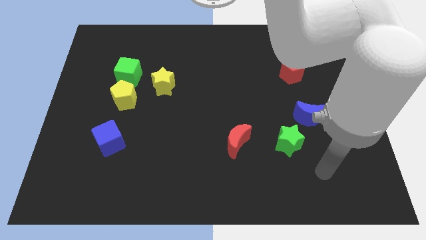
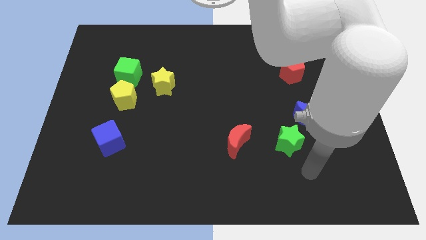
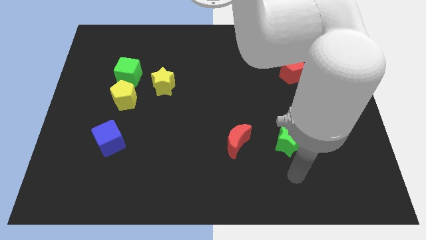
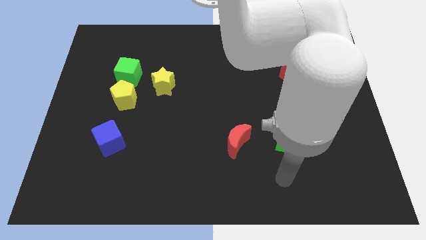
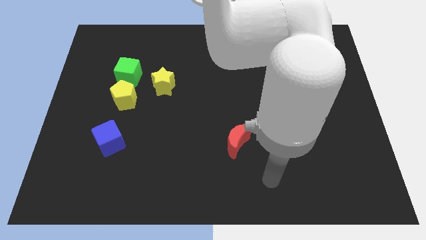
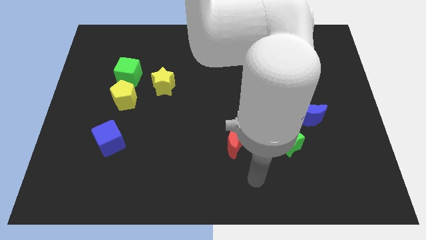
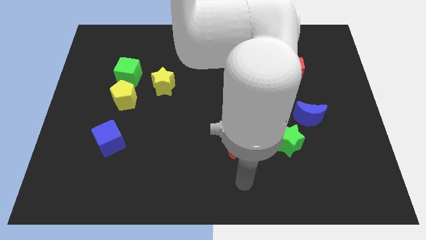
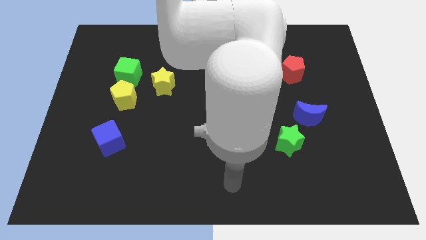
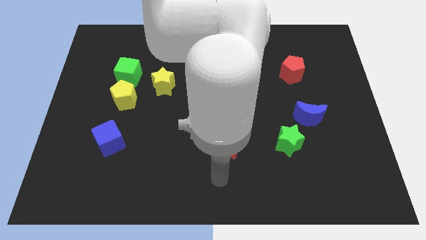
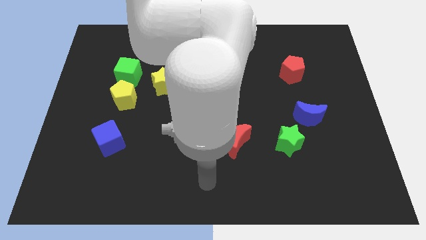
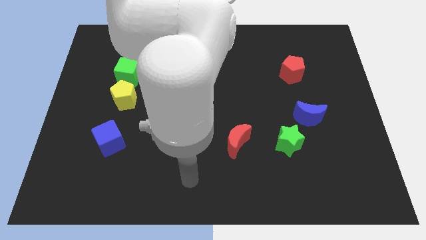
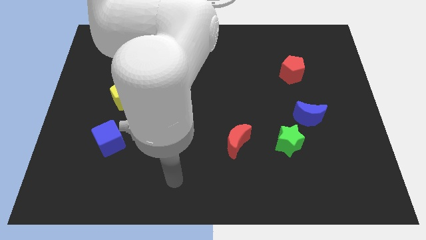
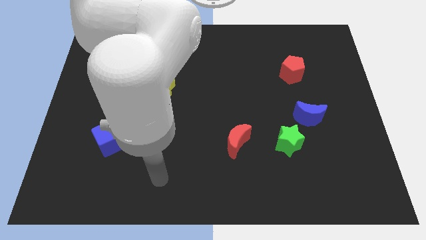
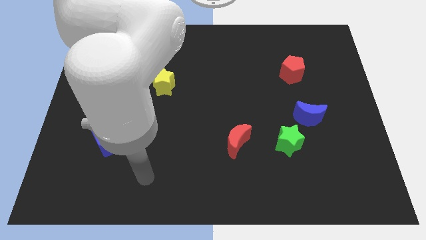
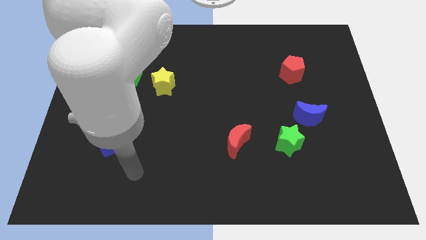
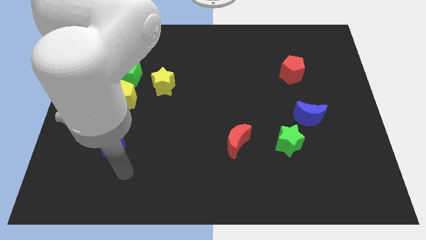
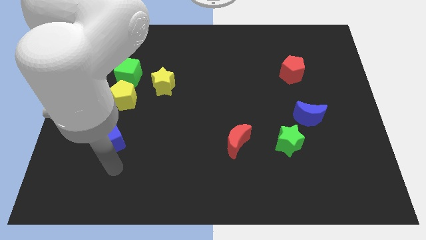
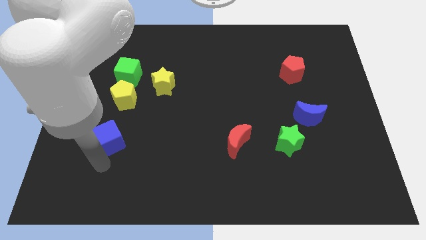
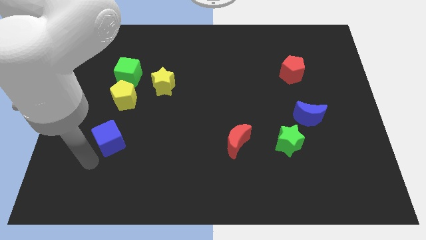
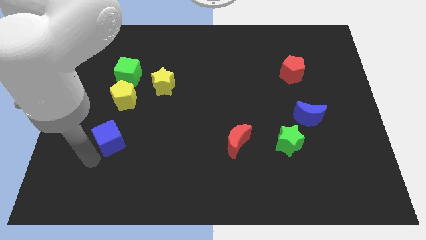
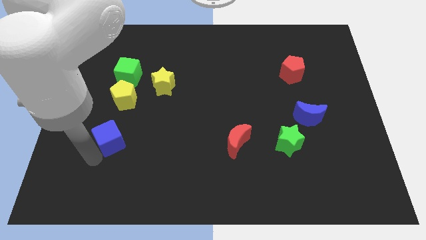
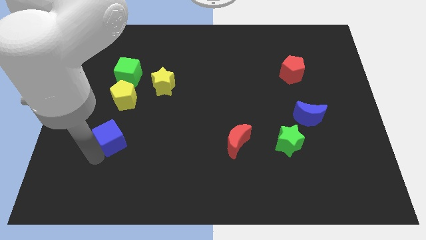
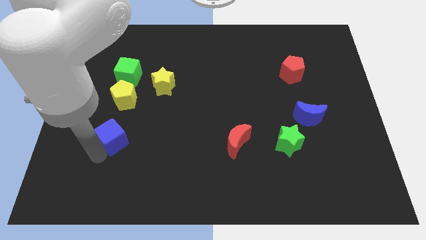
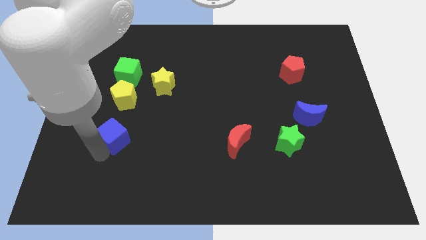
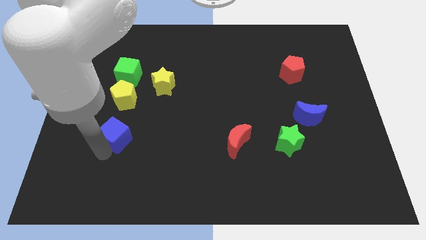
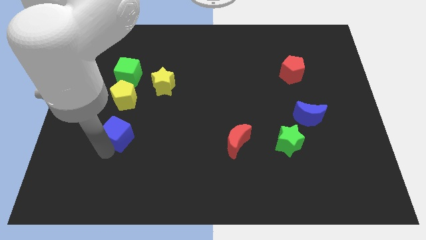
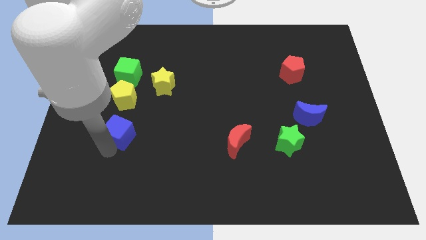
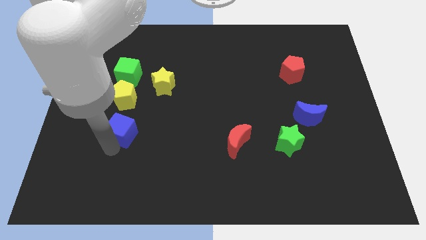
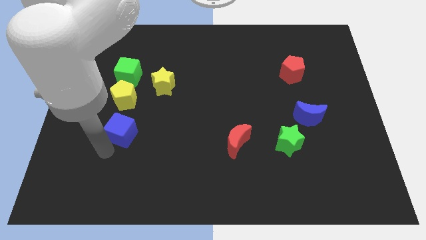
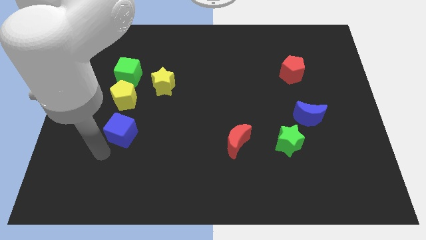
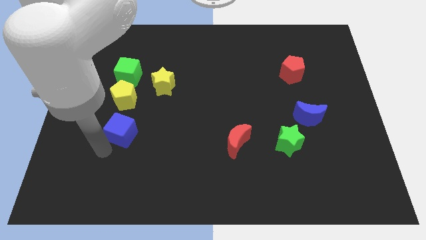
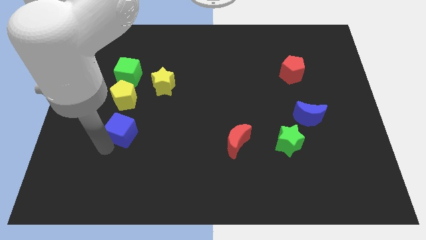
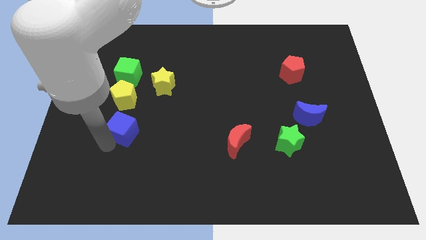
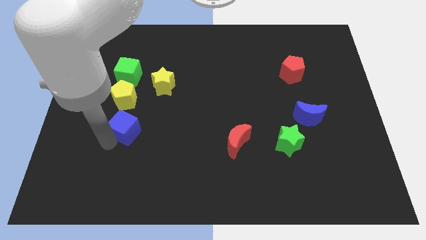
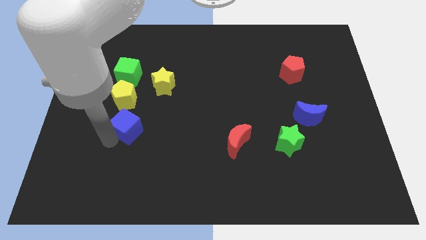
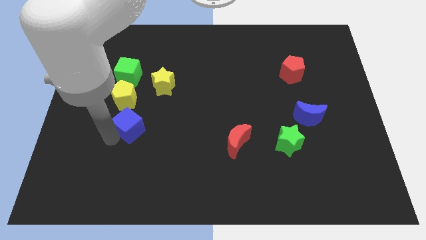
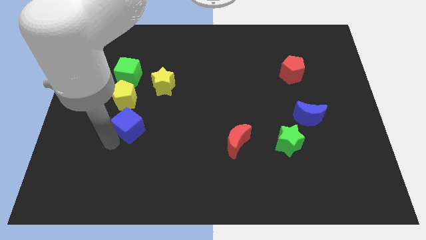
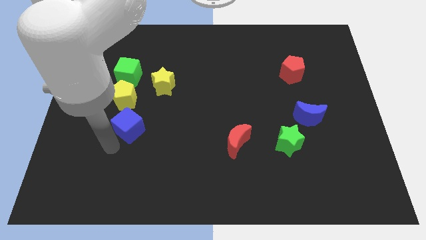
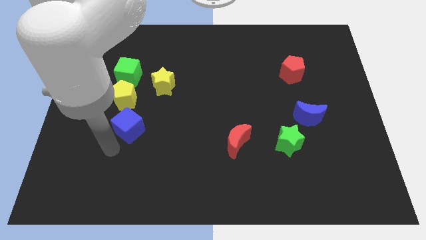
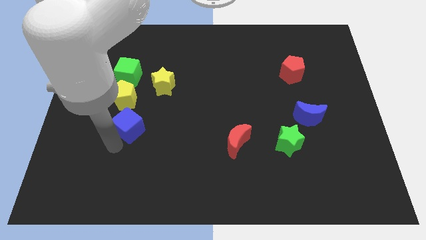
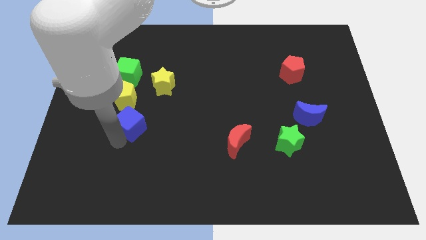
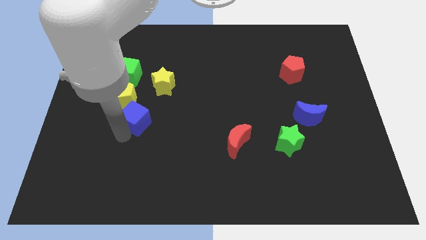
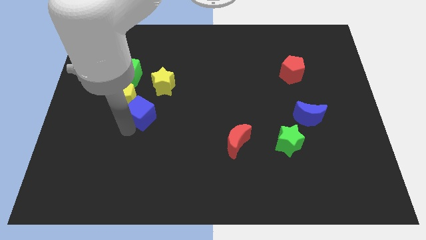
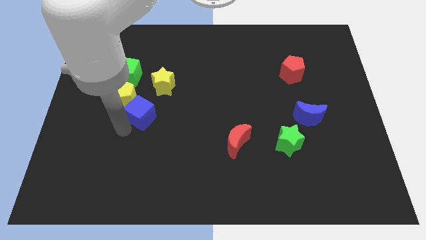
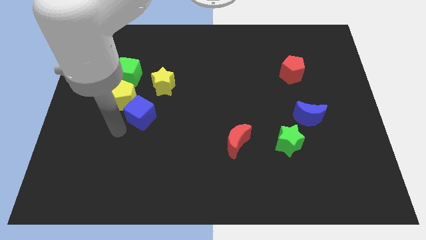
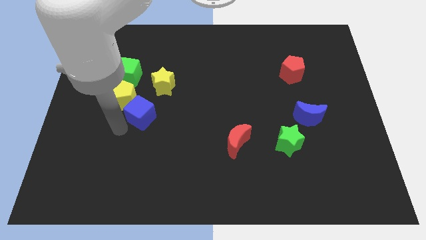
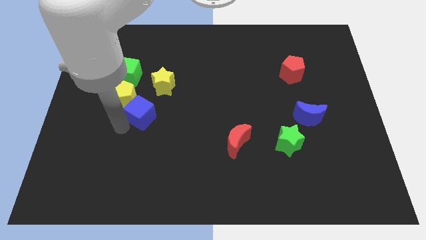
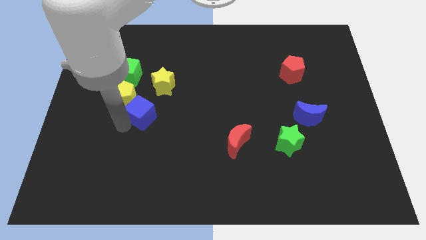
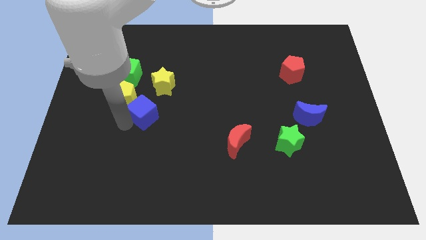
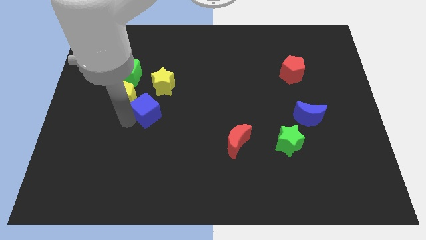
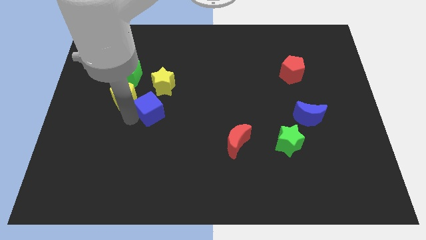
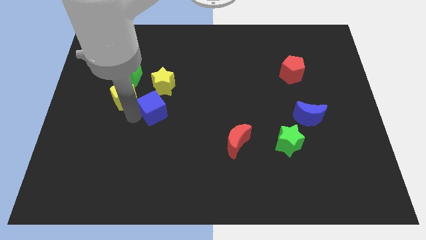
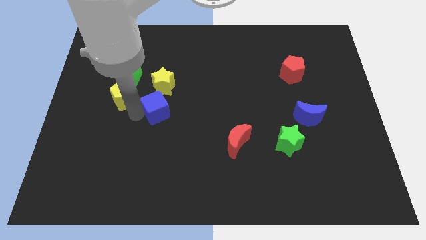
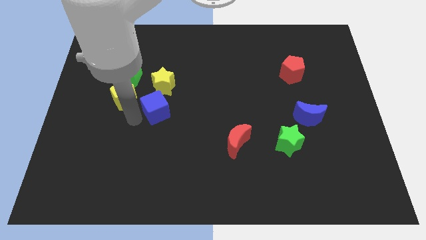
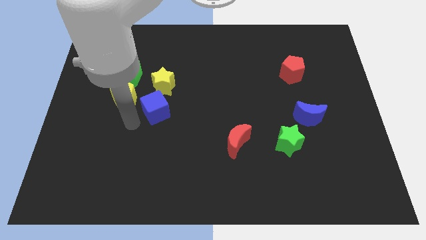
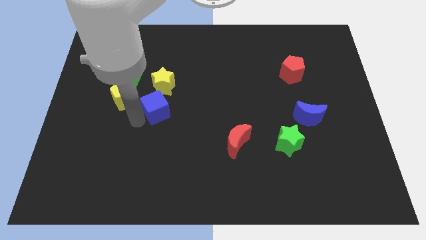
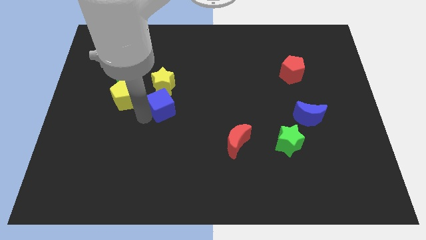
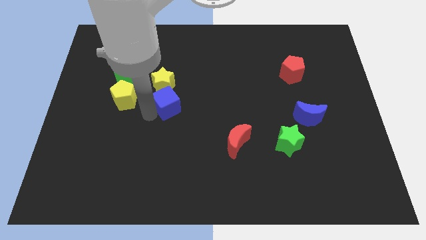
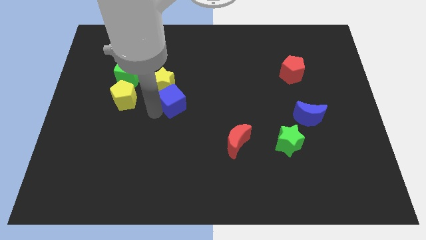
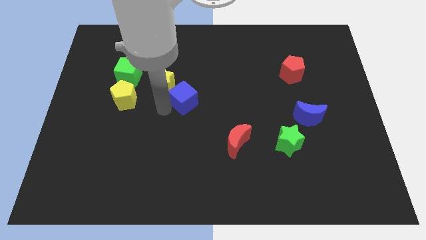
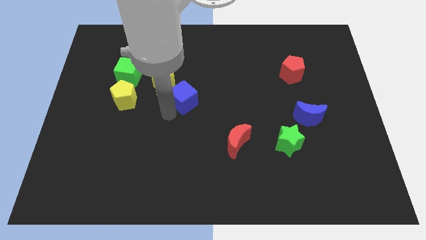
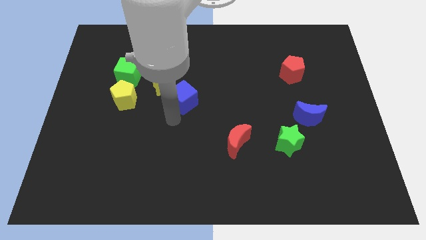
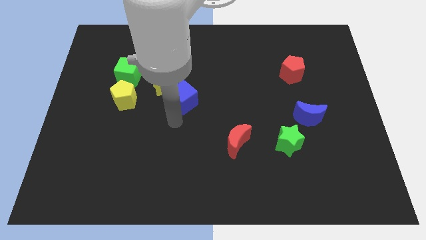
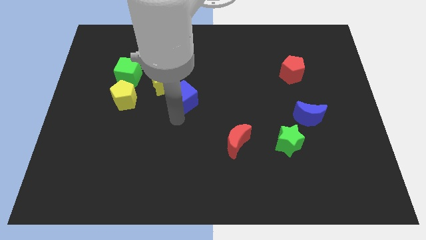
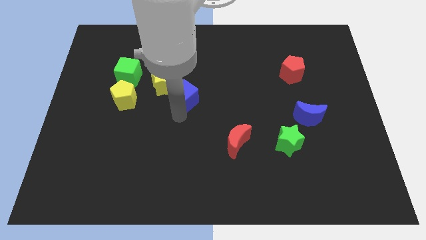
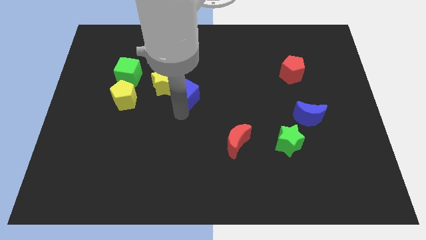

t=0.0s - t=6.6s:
push the blue cube upwards and right

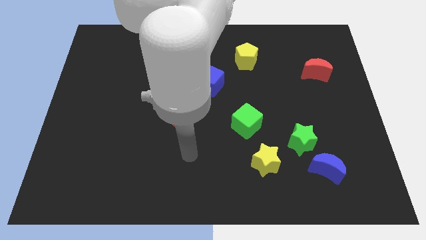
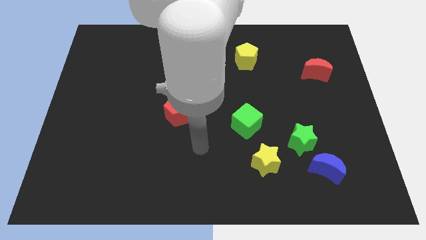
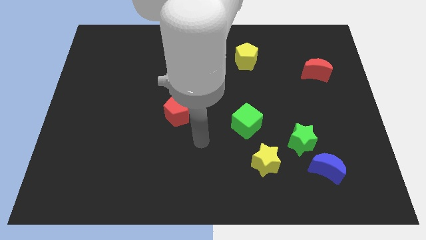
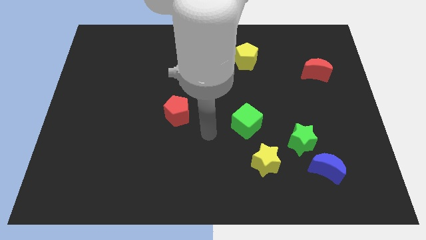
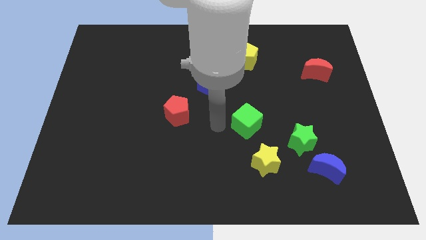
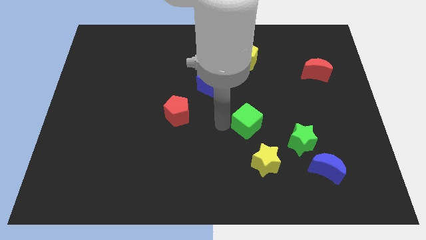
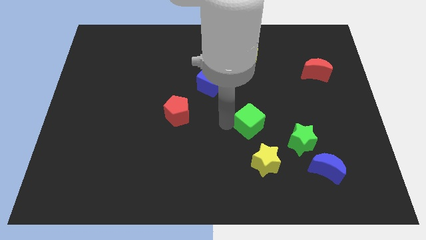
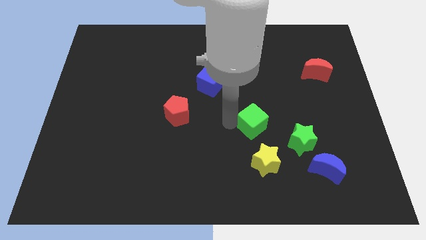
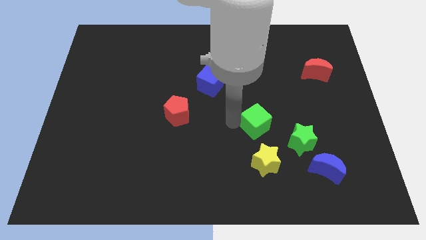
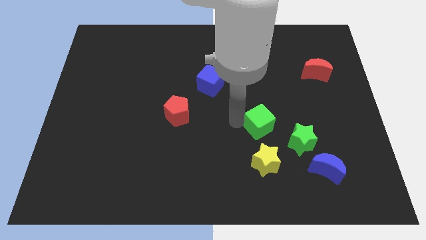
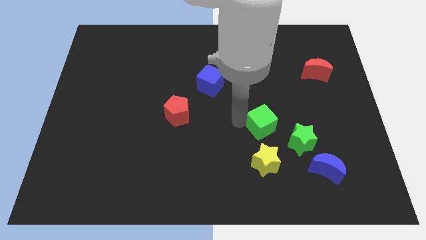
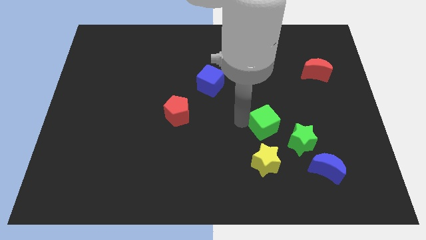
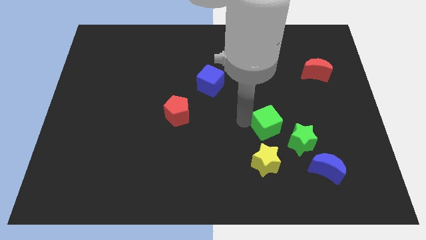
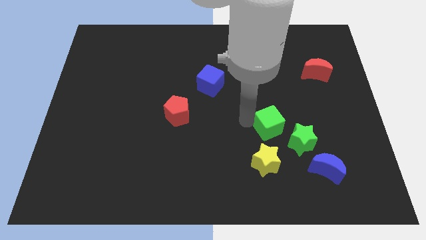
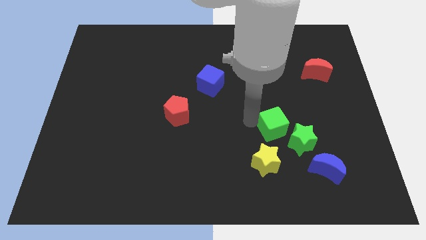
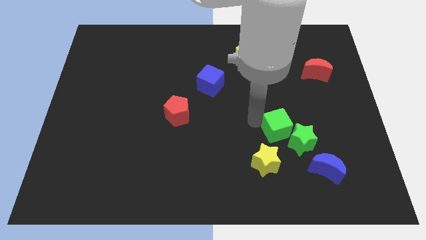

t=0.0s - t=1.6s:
move the green cube right a little

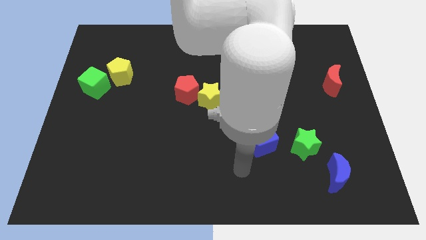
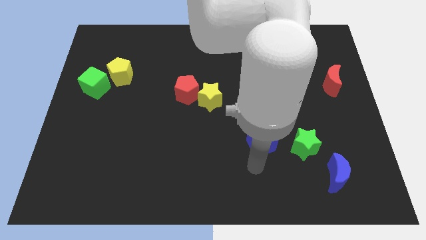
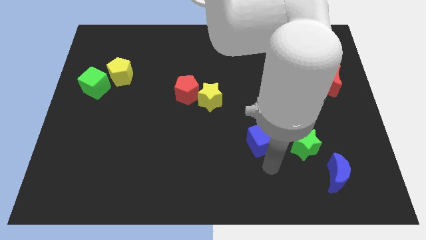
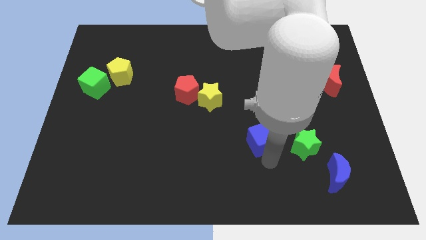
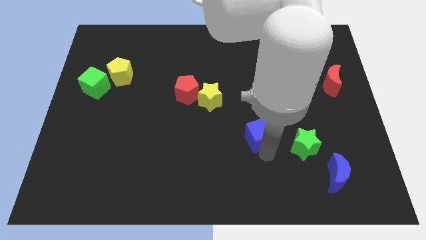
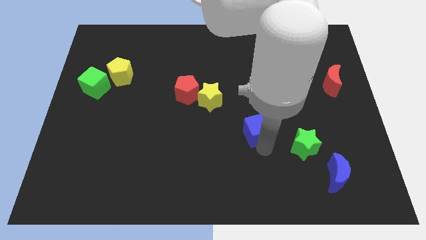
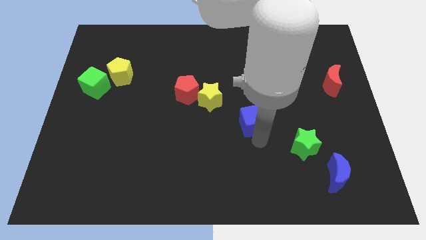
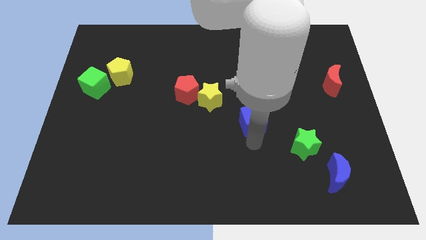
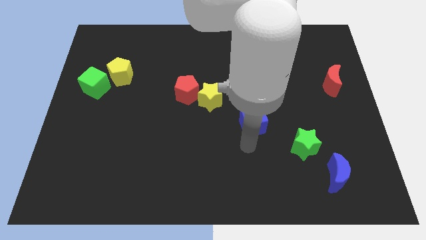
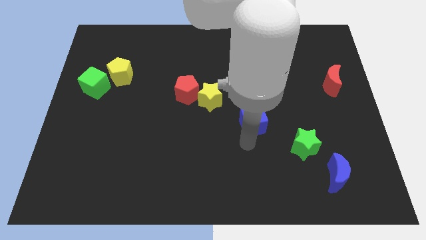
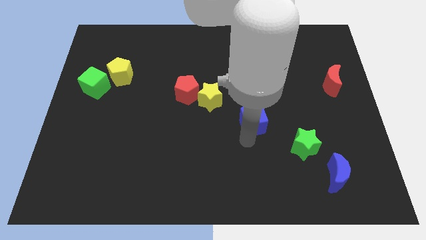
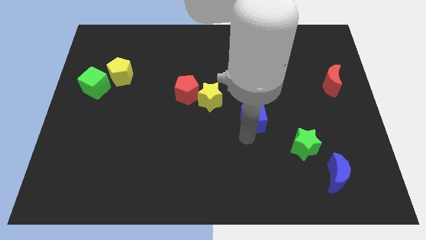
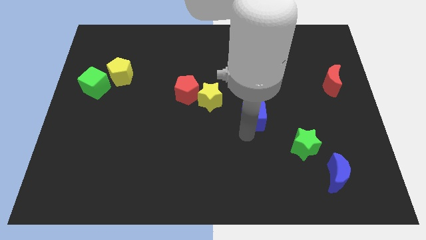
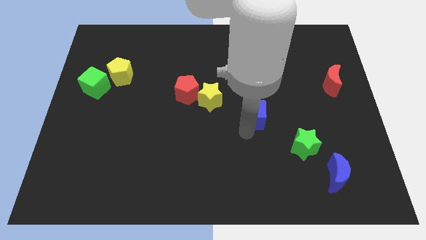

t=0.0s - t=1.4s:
slide the blue cube up a little
